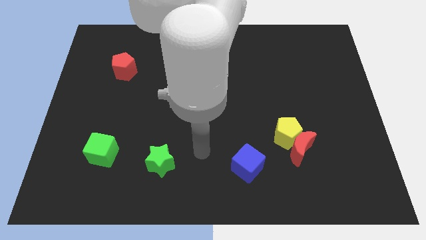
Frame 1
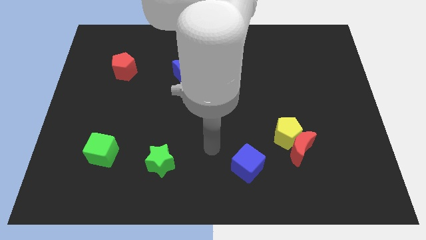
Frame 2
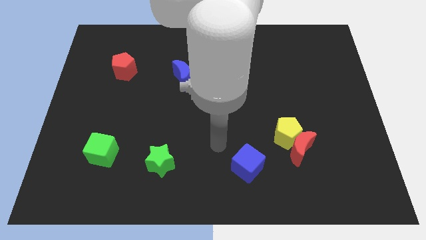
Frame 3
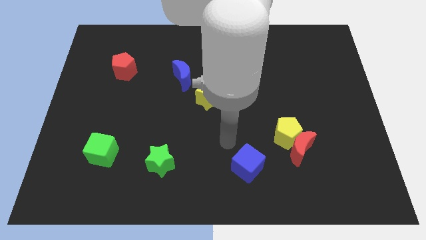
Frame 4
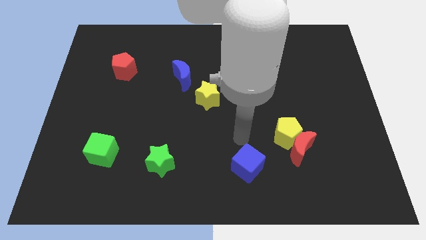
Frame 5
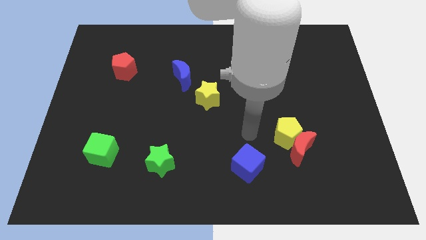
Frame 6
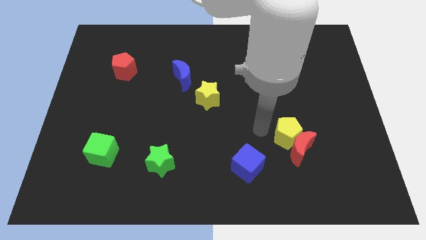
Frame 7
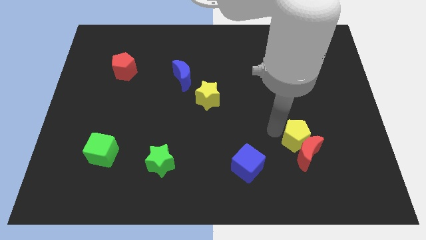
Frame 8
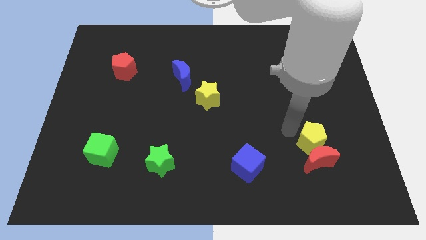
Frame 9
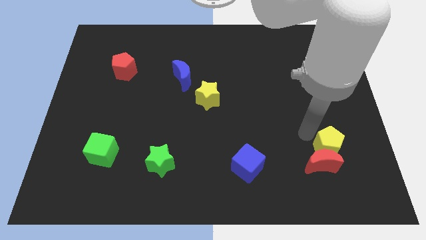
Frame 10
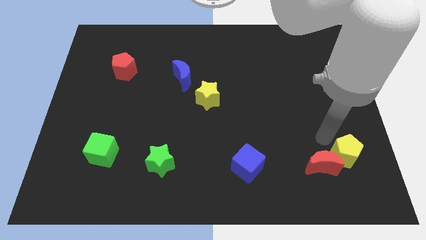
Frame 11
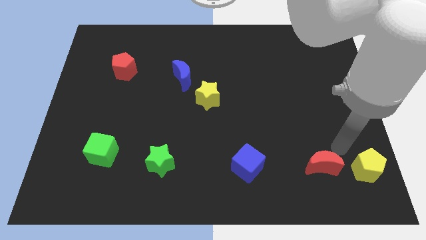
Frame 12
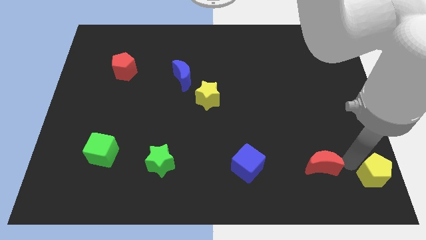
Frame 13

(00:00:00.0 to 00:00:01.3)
separate the red moon from the yellow pentagon

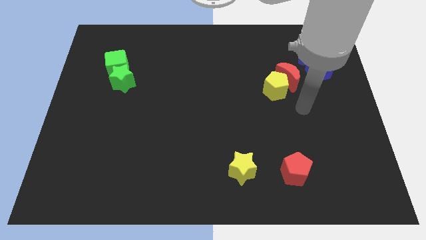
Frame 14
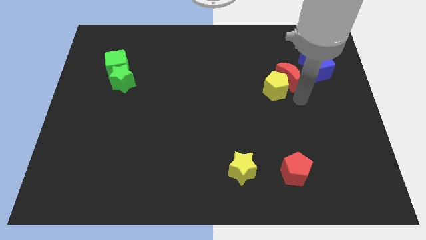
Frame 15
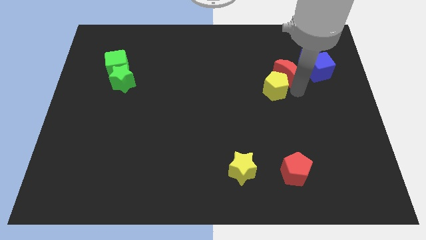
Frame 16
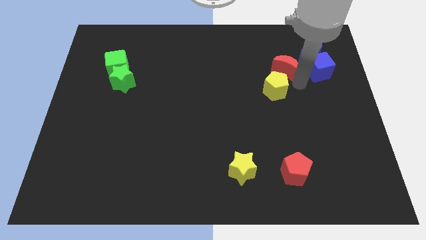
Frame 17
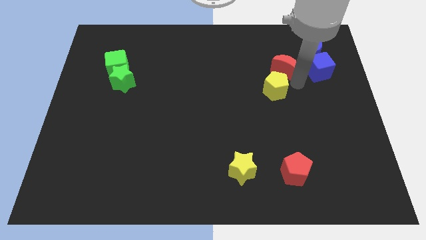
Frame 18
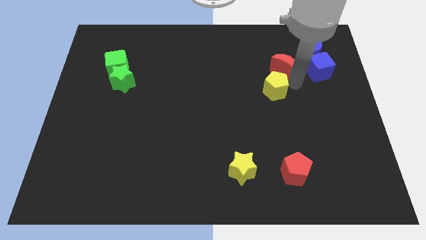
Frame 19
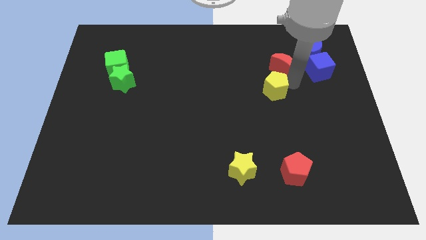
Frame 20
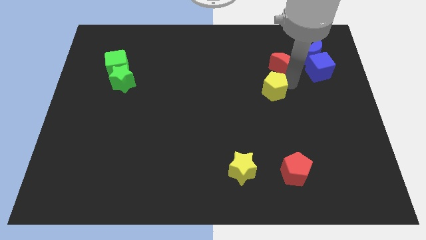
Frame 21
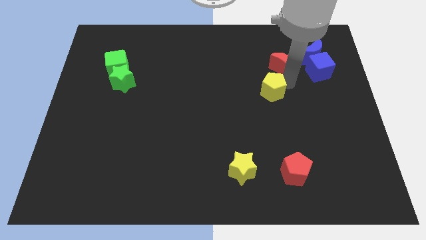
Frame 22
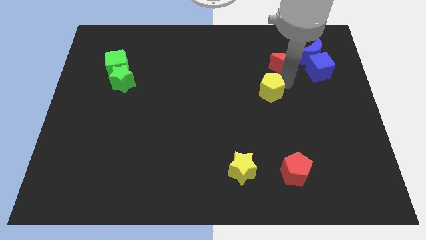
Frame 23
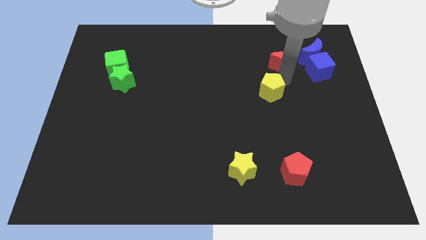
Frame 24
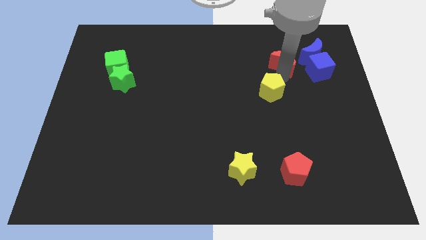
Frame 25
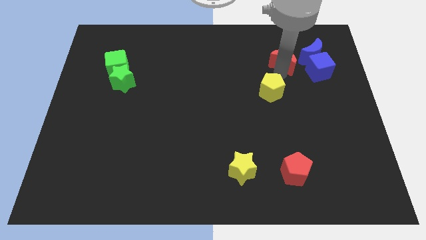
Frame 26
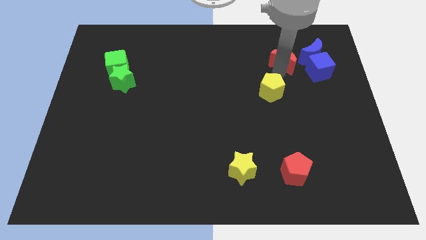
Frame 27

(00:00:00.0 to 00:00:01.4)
move the yellow pentagon away from the red moon

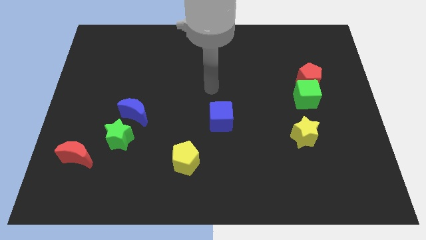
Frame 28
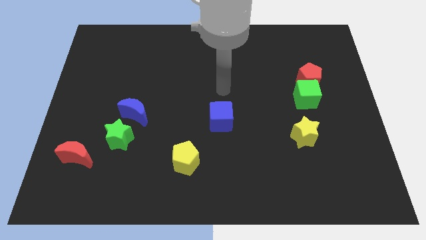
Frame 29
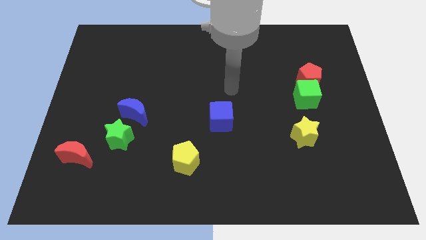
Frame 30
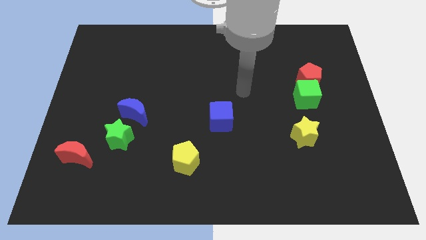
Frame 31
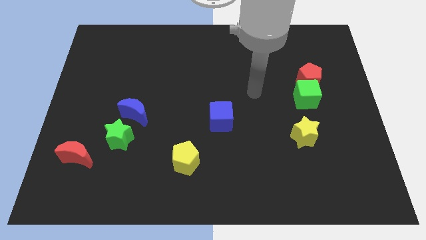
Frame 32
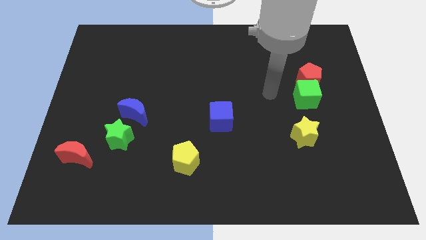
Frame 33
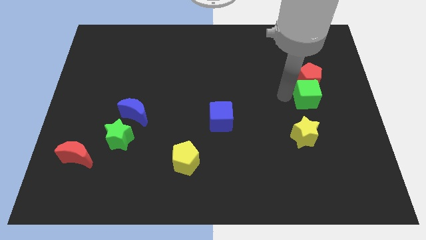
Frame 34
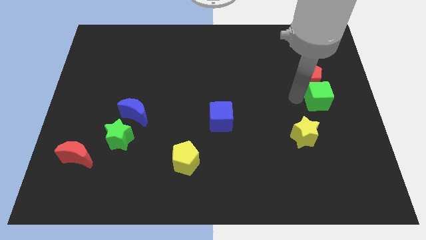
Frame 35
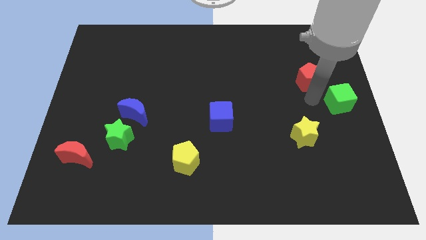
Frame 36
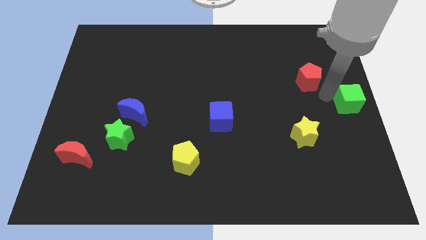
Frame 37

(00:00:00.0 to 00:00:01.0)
separate the red pentagon from the green cube

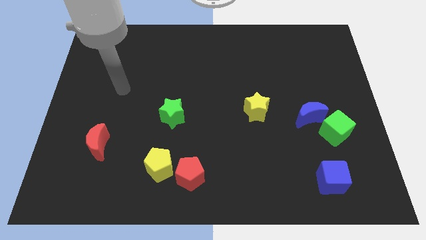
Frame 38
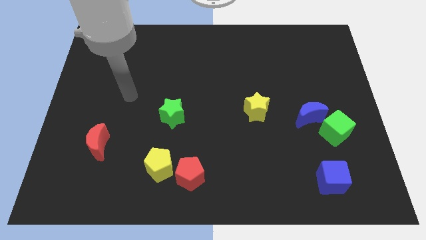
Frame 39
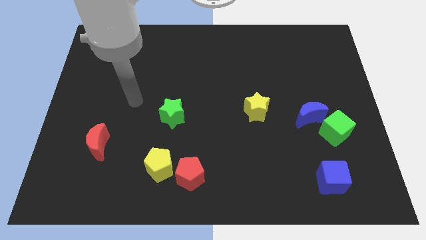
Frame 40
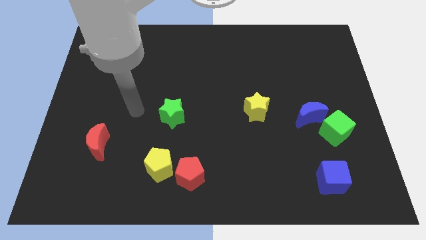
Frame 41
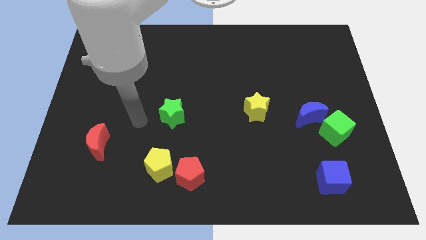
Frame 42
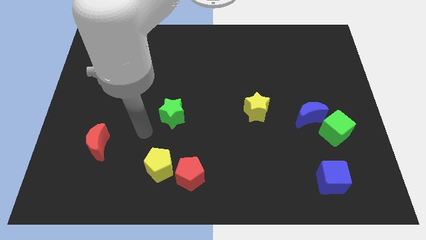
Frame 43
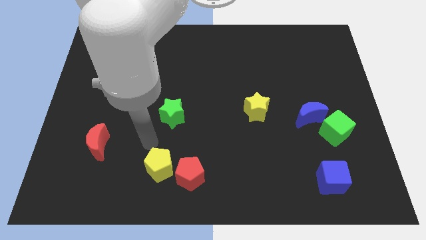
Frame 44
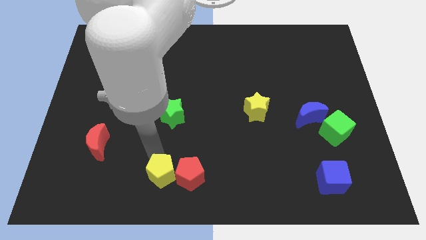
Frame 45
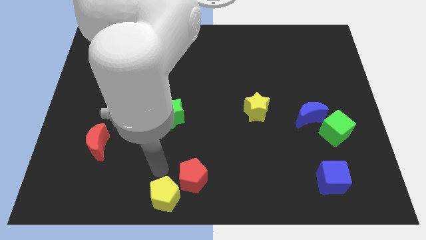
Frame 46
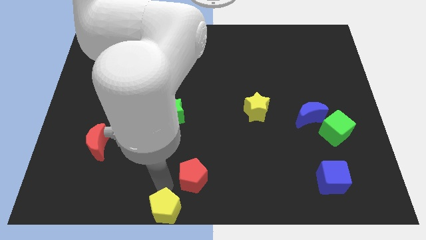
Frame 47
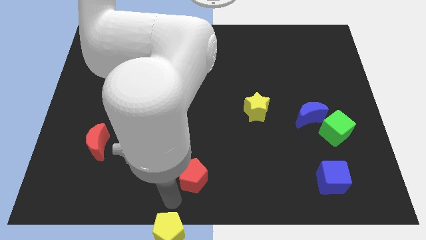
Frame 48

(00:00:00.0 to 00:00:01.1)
pull the red pentagon apart from the yellow pentagon

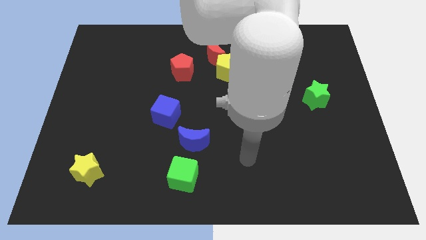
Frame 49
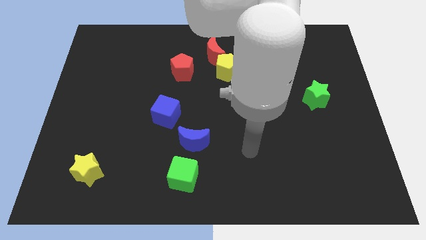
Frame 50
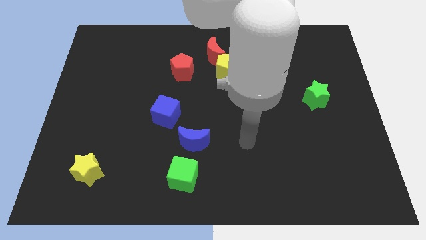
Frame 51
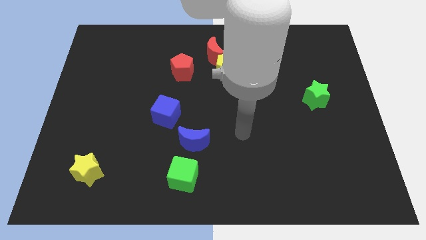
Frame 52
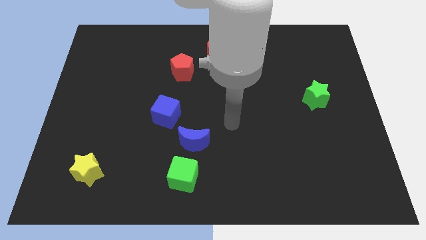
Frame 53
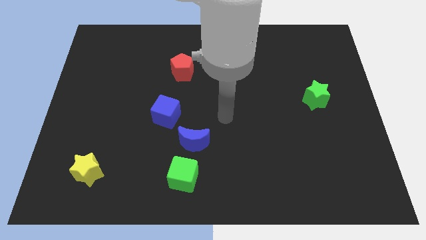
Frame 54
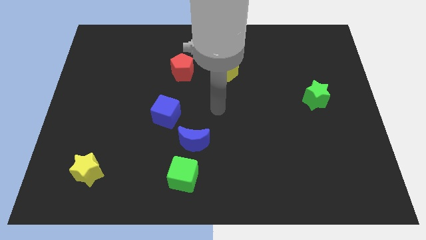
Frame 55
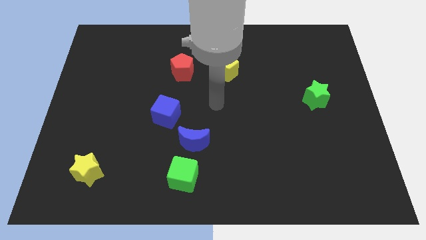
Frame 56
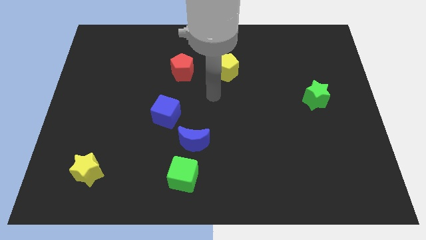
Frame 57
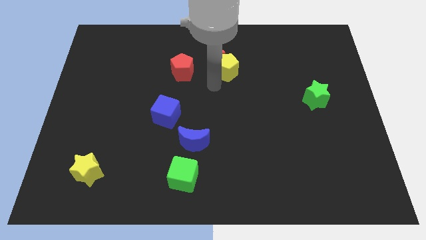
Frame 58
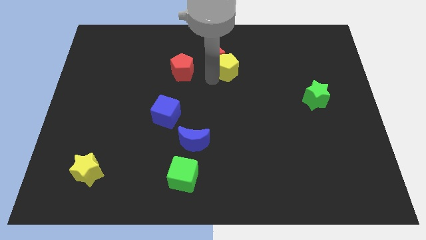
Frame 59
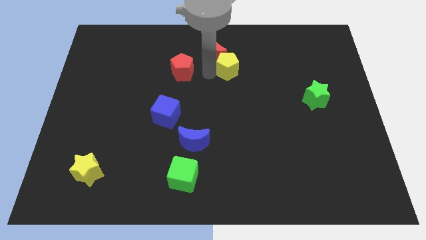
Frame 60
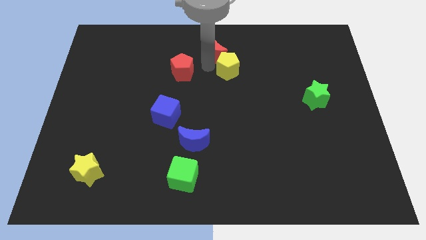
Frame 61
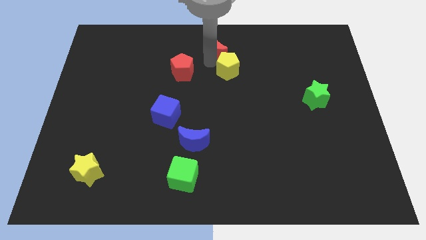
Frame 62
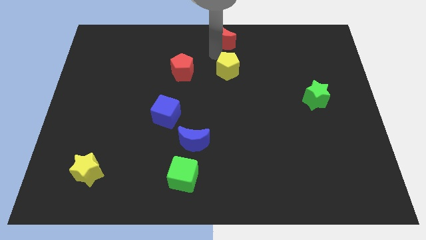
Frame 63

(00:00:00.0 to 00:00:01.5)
pull the yellow pentagon apart from the red moon

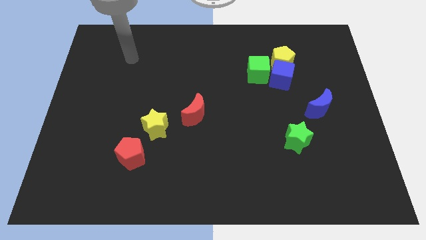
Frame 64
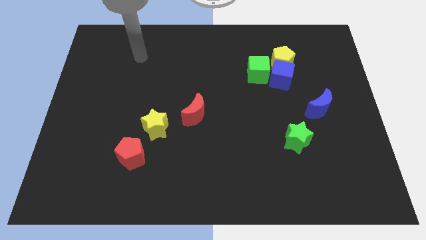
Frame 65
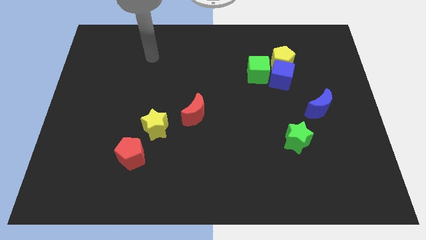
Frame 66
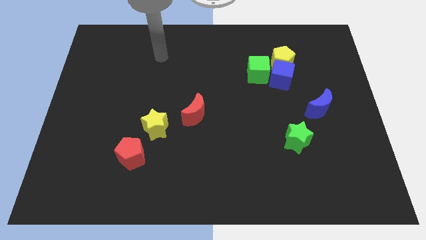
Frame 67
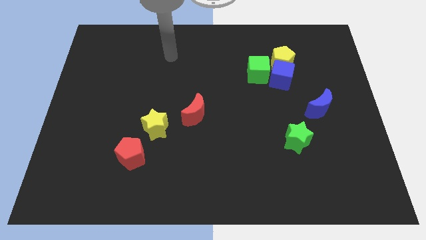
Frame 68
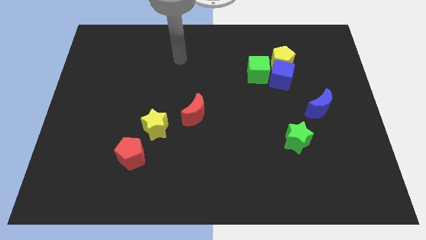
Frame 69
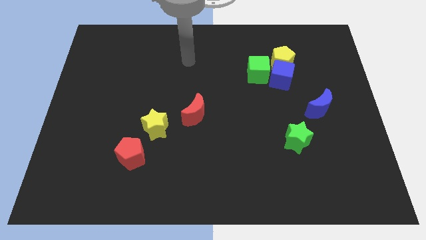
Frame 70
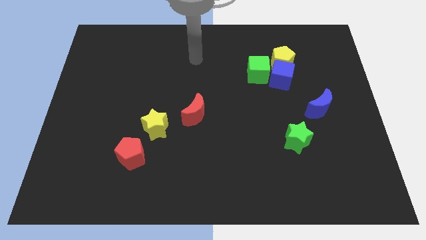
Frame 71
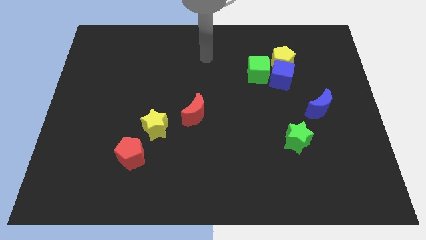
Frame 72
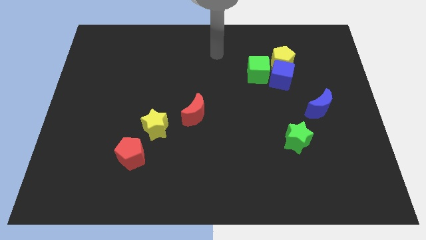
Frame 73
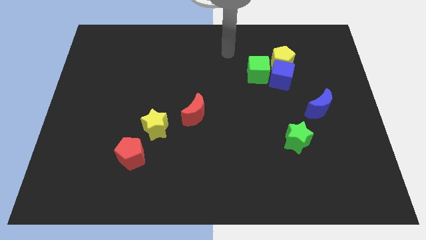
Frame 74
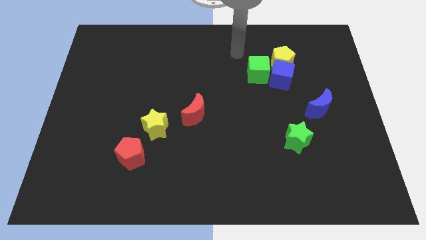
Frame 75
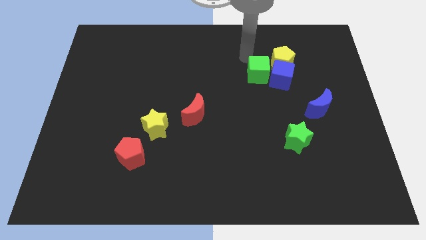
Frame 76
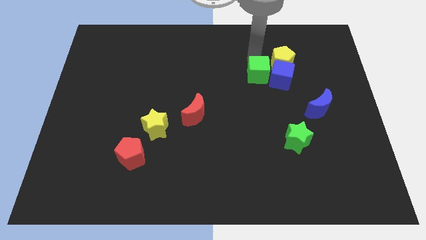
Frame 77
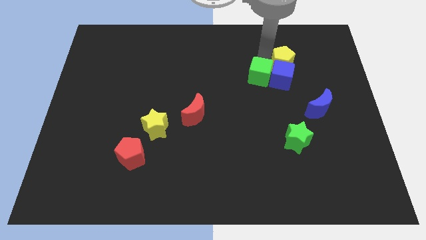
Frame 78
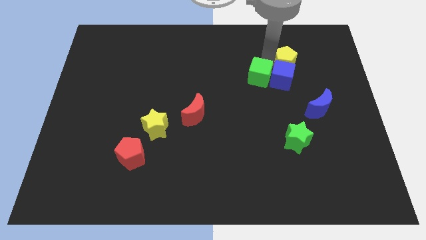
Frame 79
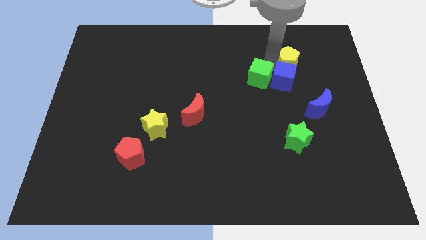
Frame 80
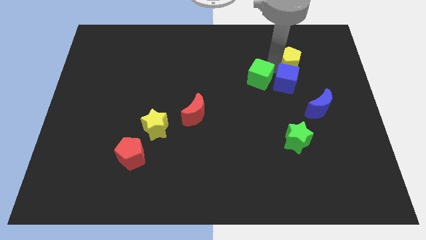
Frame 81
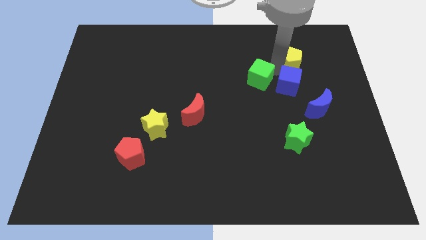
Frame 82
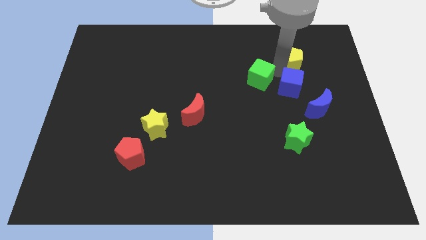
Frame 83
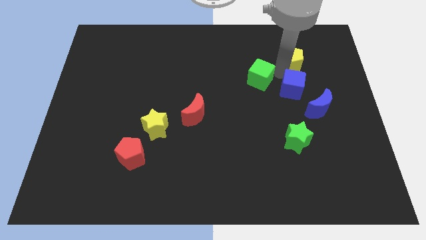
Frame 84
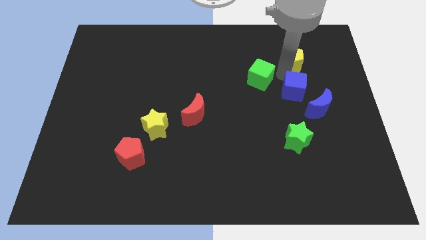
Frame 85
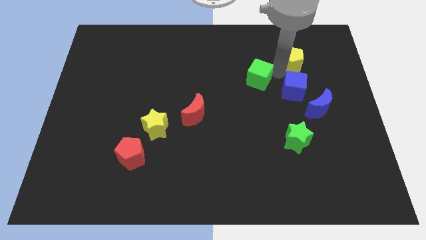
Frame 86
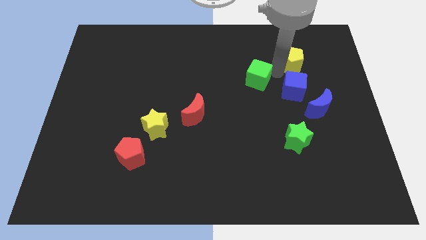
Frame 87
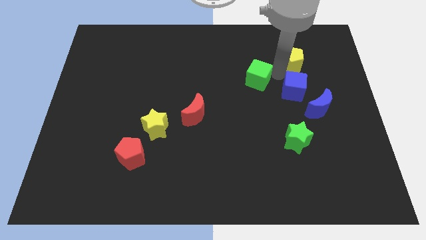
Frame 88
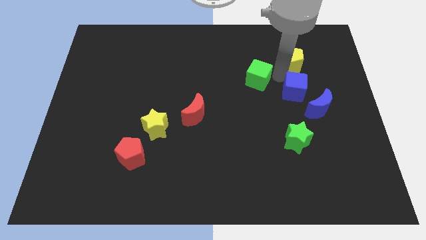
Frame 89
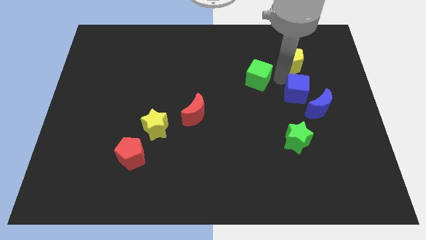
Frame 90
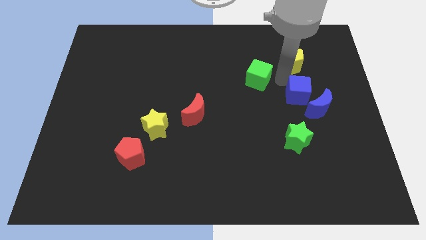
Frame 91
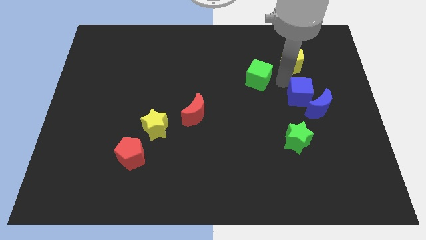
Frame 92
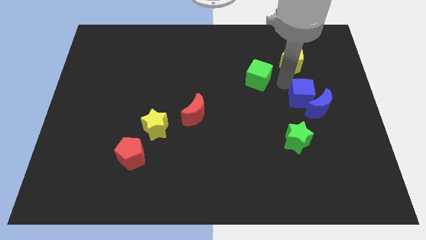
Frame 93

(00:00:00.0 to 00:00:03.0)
move the blue cube away from the yellow pentagon and green cube
